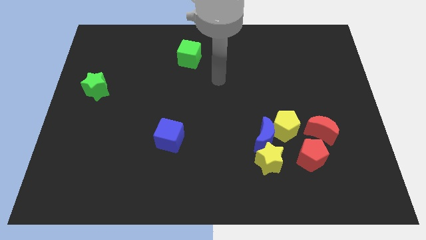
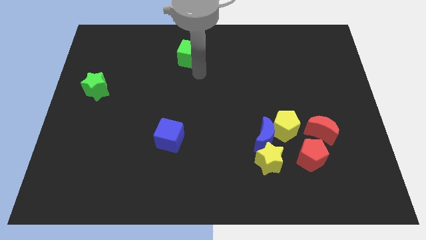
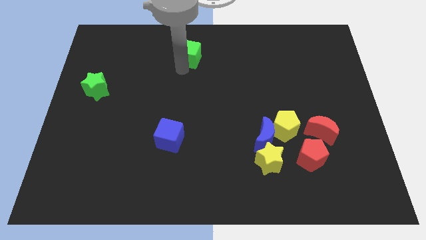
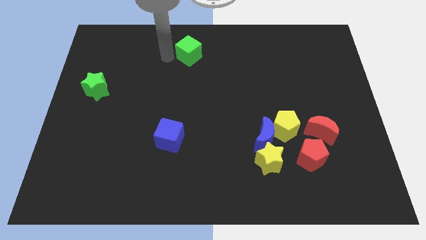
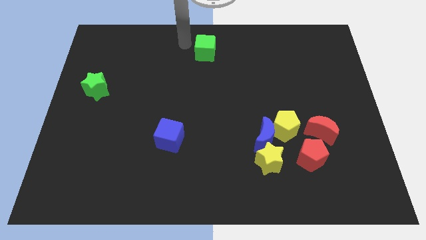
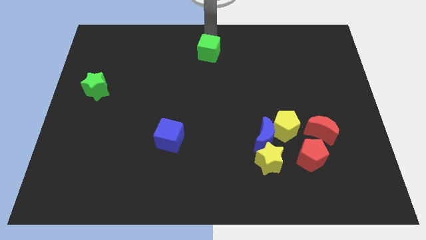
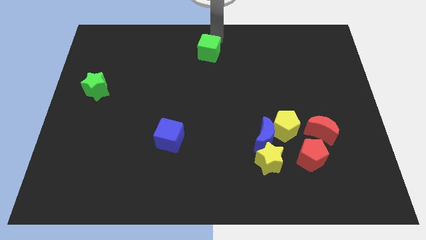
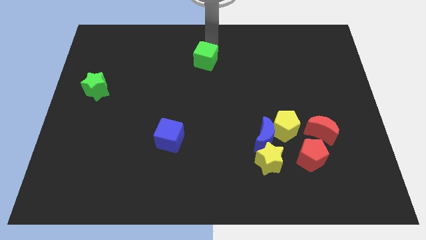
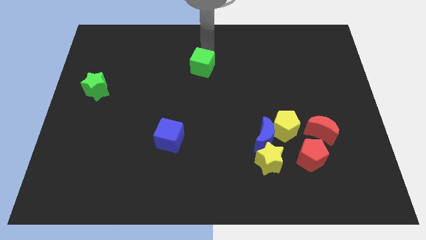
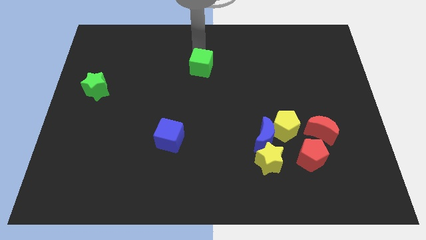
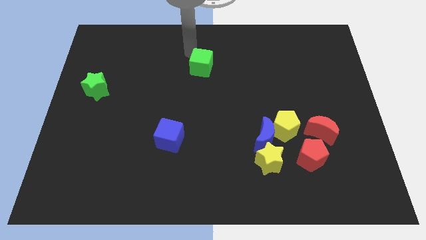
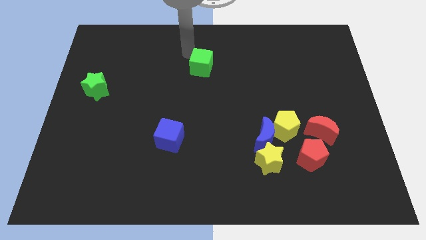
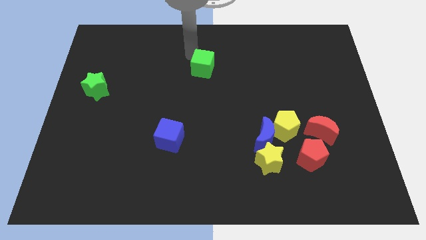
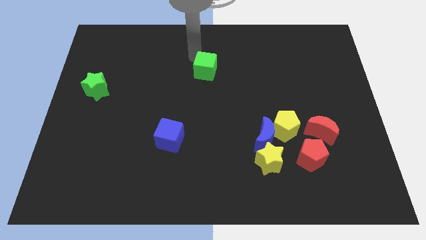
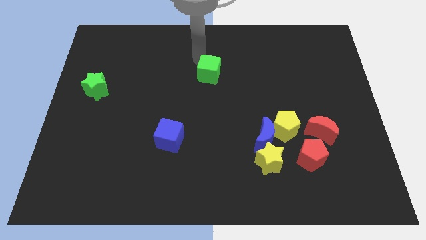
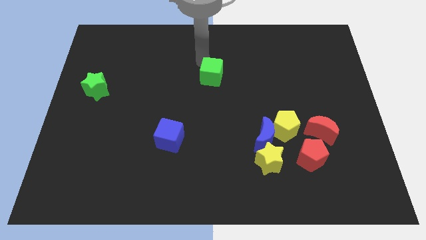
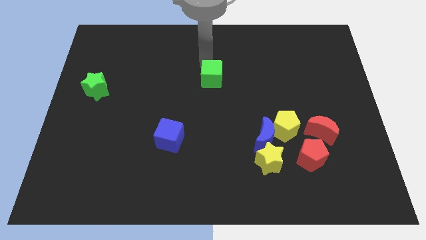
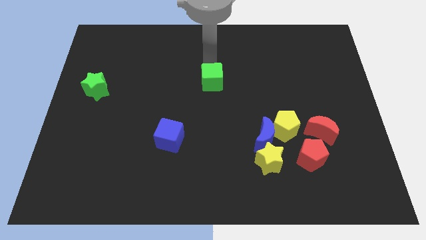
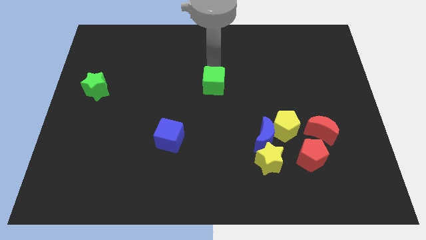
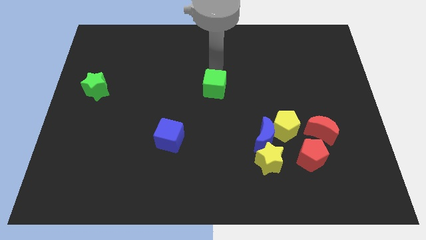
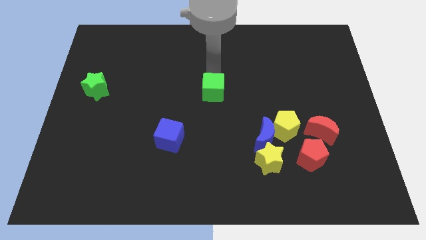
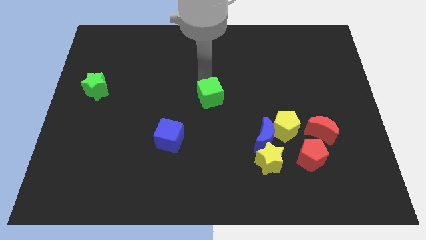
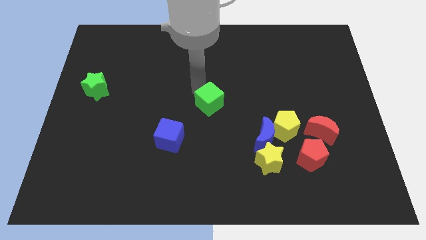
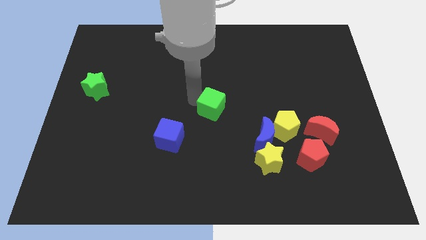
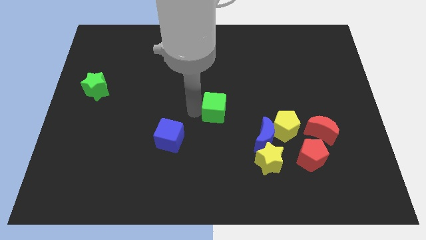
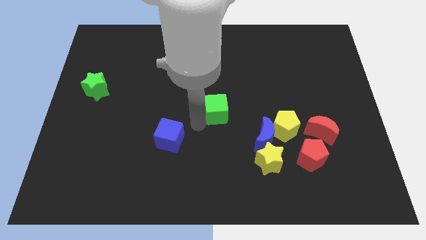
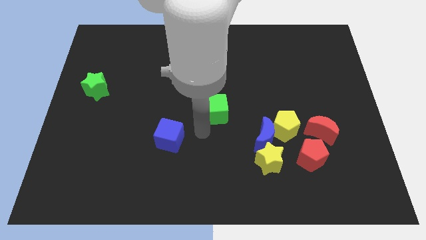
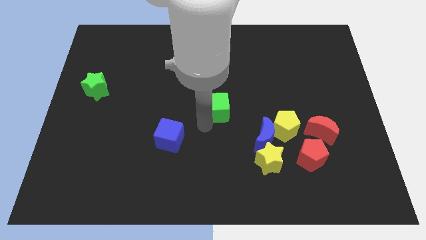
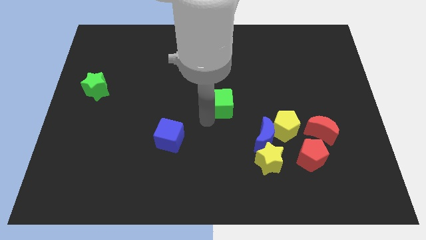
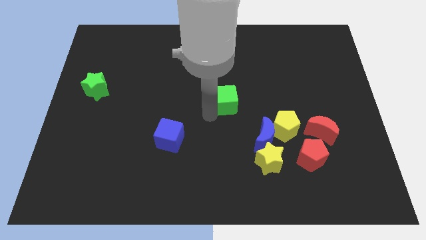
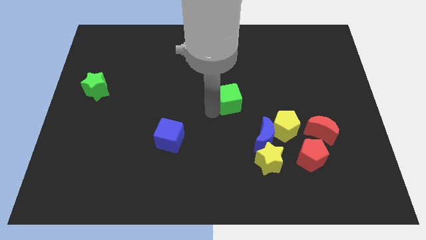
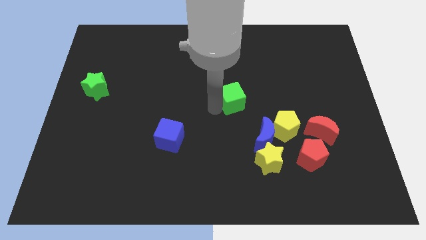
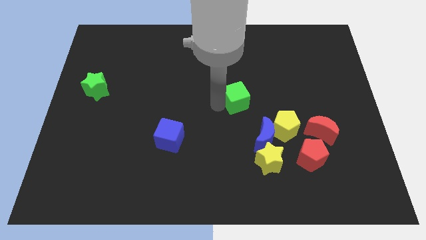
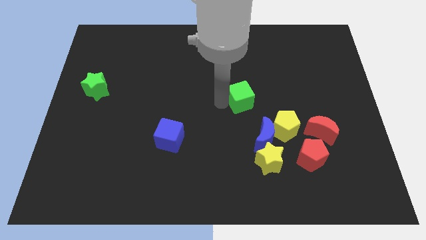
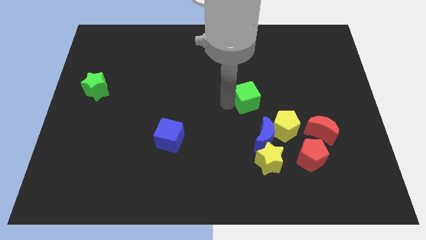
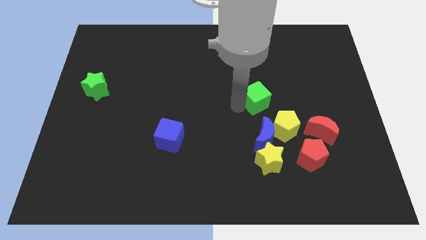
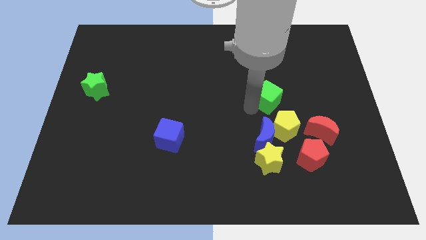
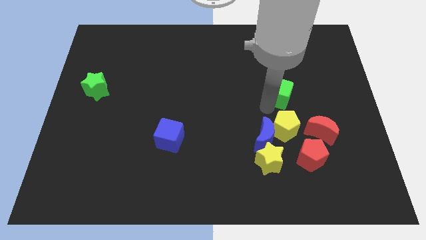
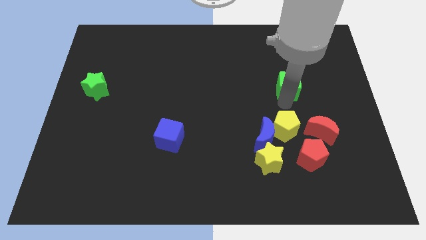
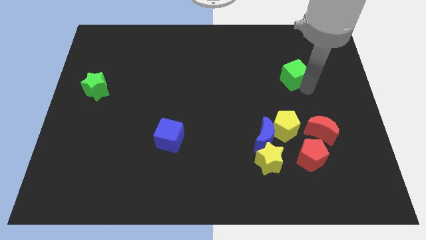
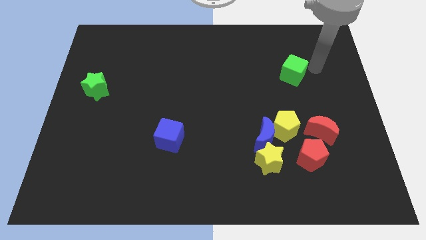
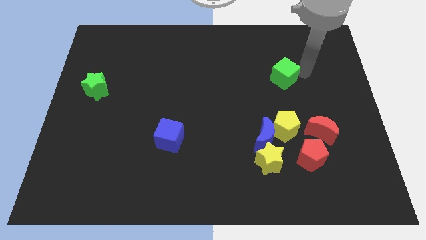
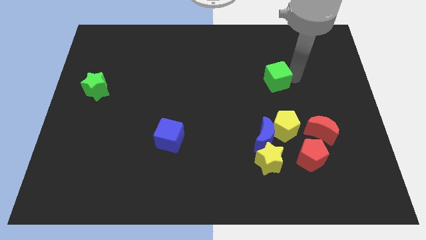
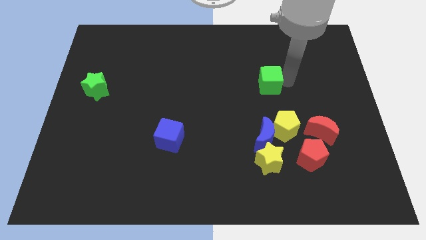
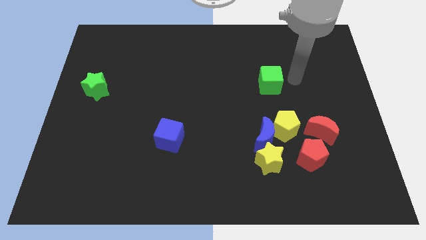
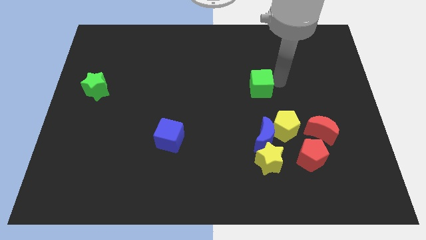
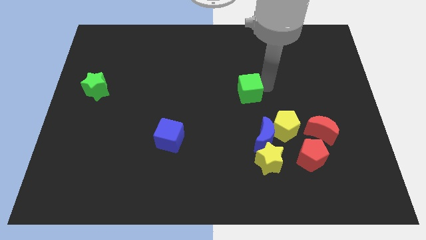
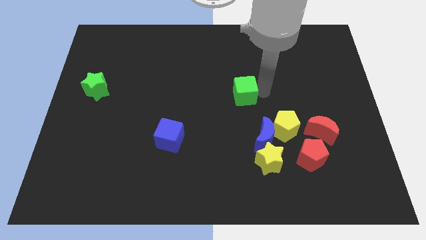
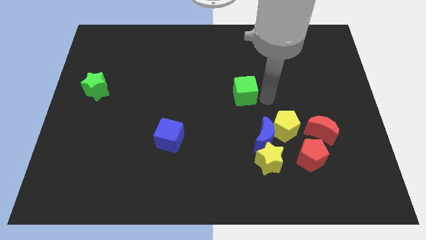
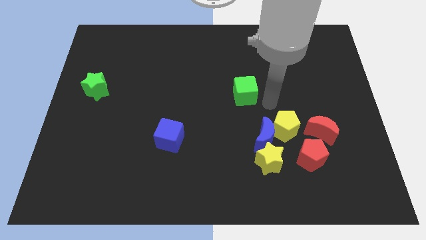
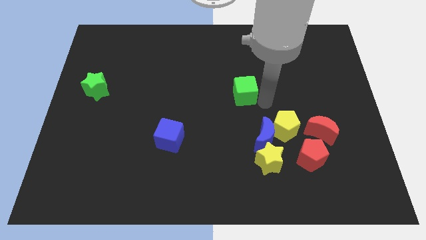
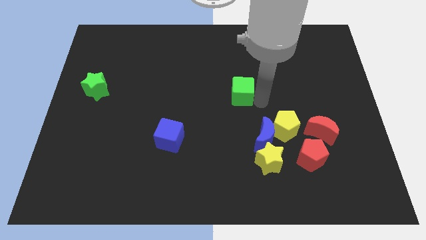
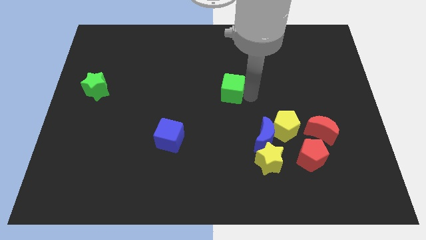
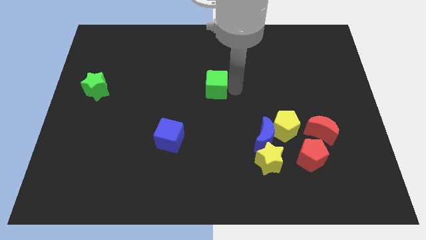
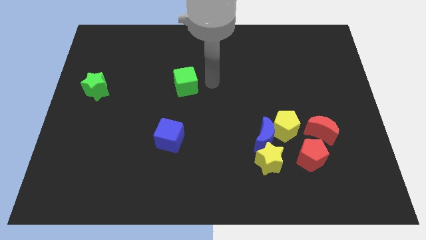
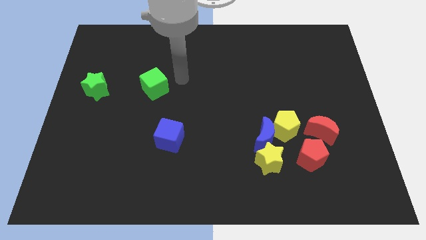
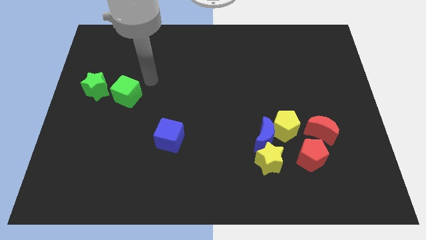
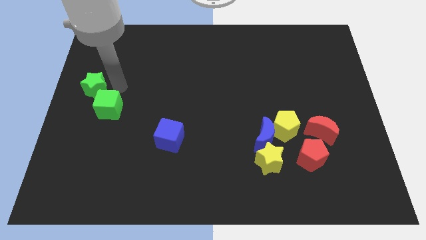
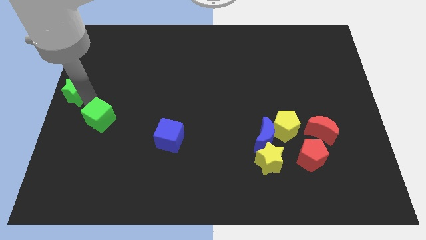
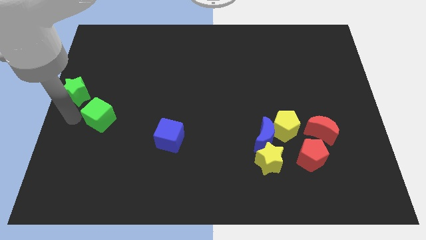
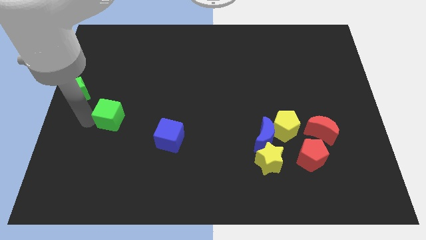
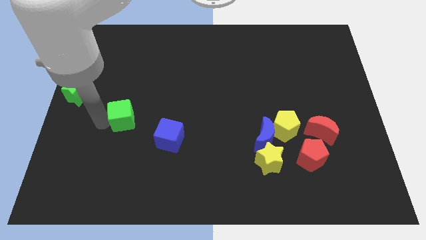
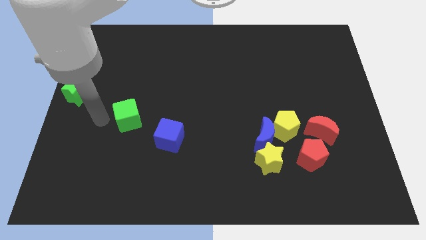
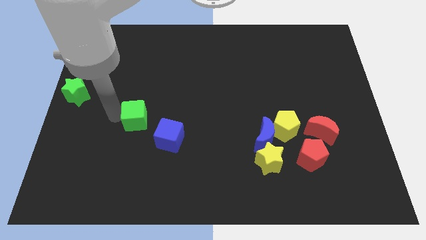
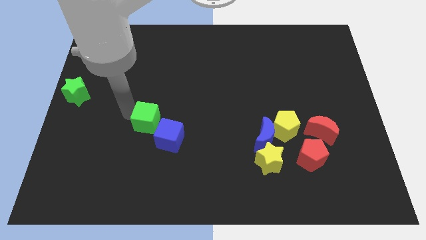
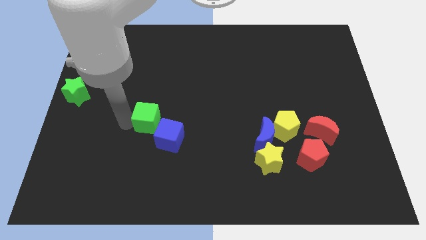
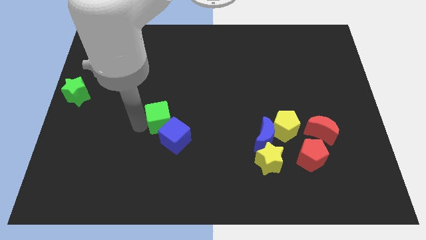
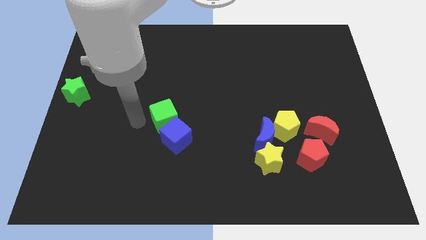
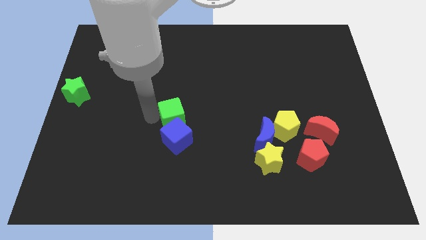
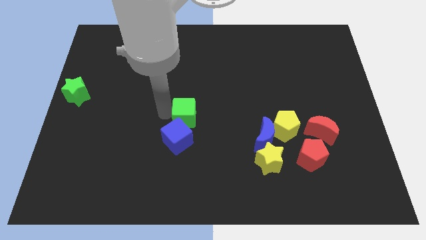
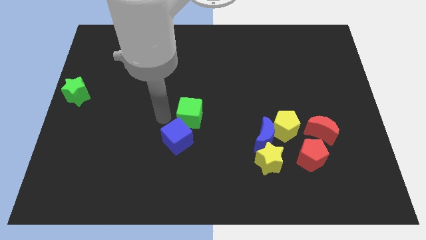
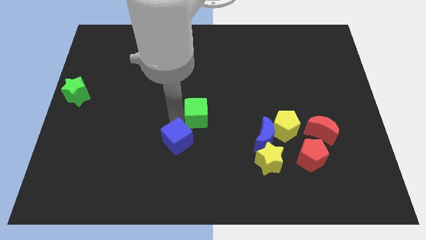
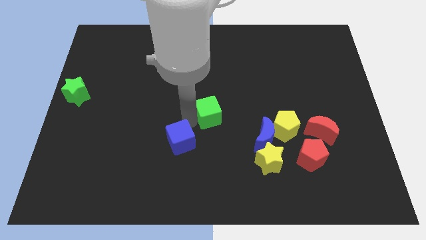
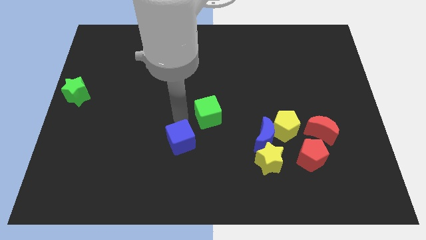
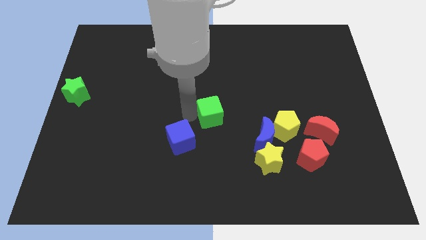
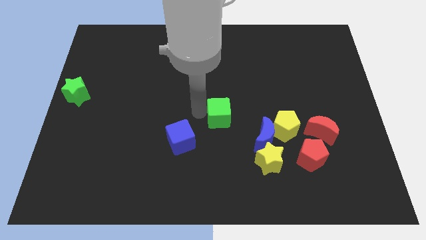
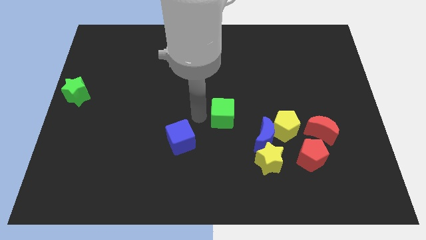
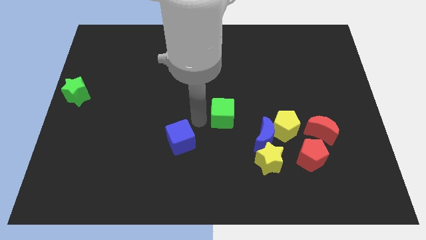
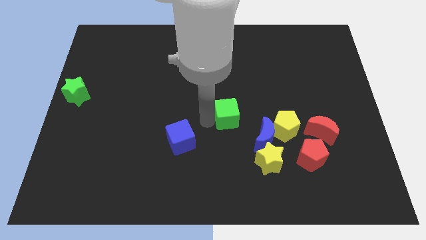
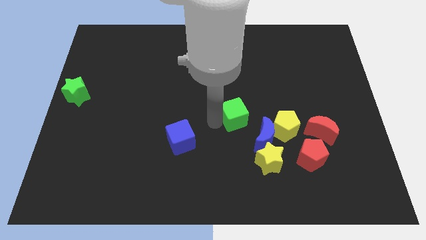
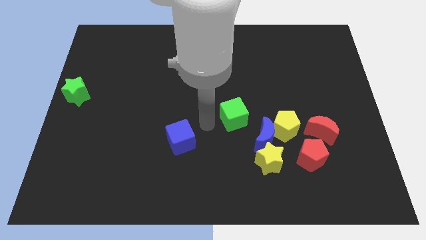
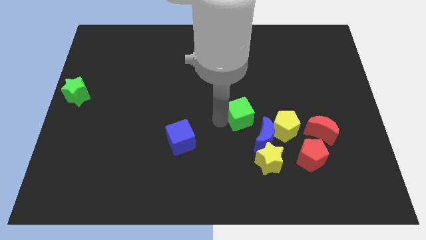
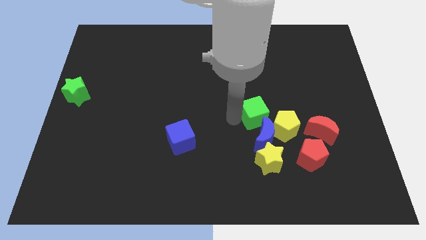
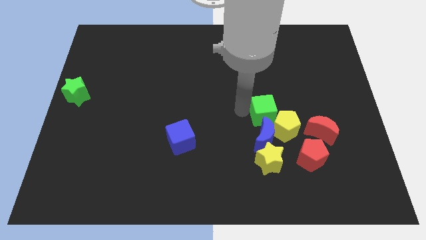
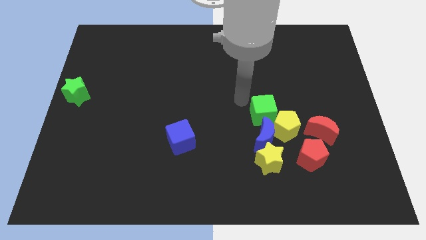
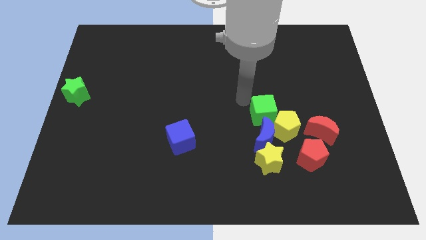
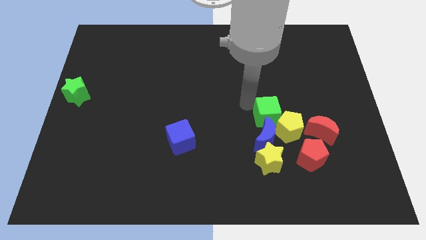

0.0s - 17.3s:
push the green cube to the yellow pentagon
